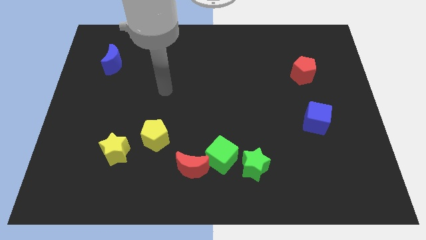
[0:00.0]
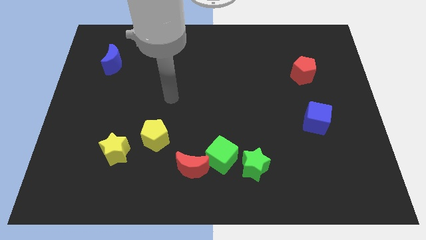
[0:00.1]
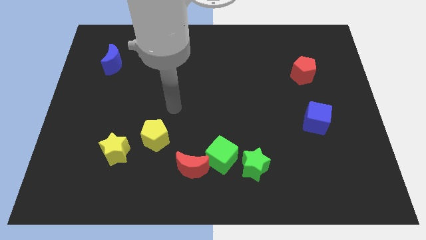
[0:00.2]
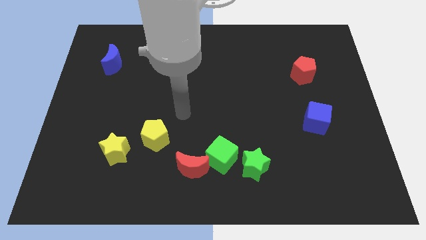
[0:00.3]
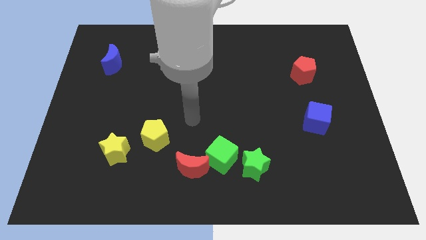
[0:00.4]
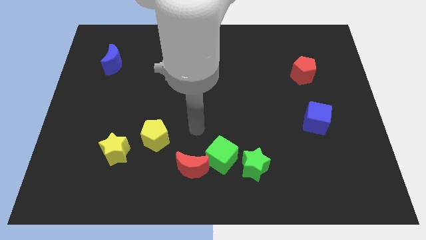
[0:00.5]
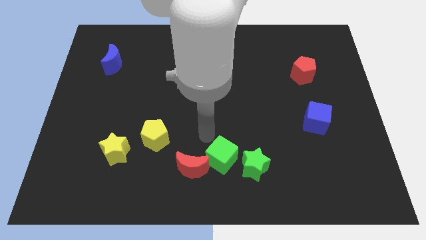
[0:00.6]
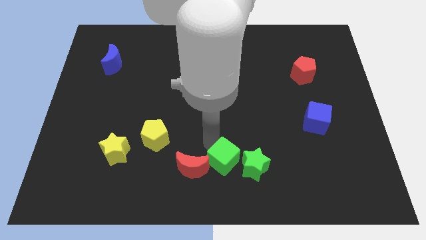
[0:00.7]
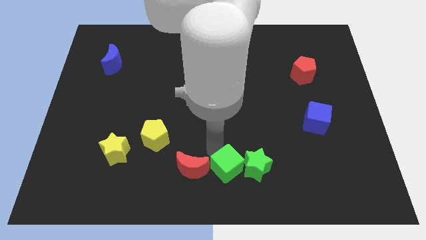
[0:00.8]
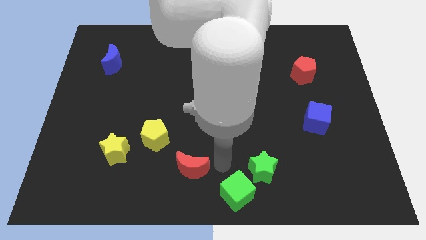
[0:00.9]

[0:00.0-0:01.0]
move the red moon away from the green cube

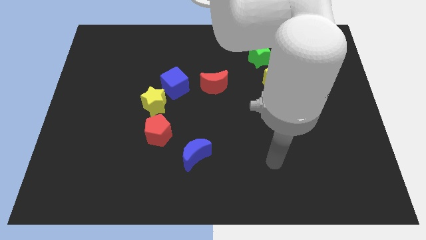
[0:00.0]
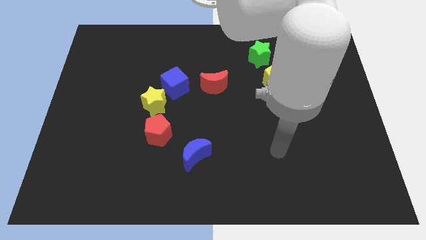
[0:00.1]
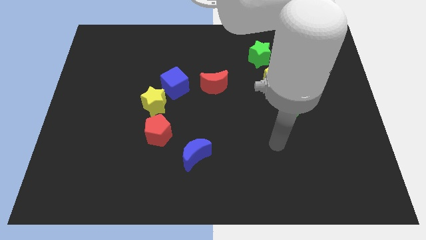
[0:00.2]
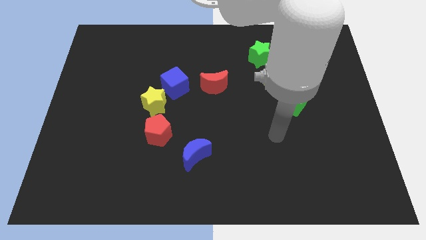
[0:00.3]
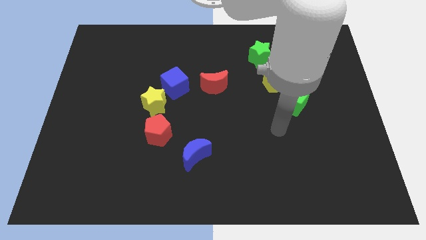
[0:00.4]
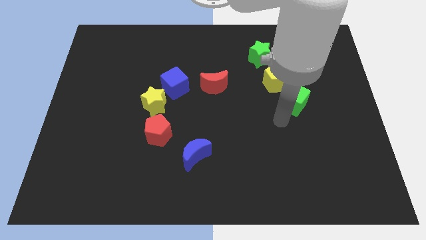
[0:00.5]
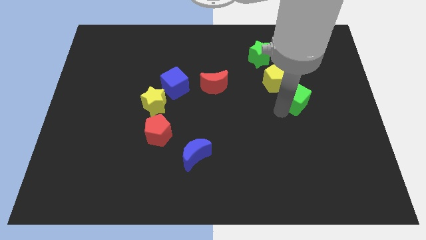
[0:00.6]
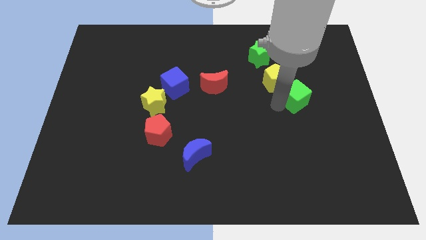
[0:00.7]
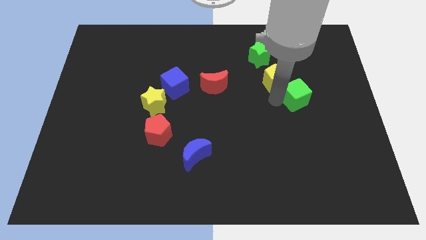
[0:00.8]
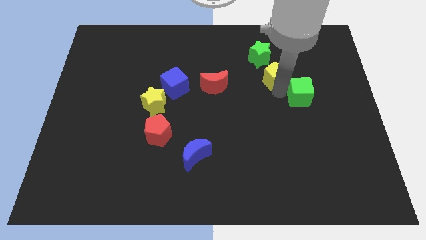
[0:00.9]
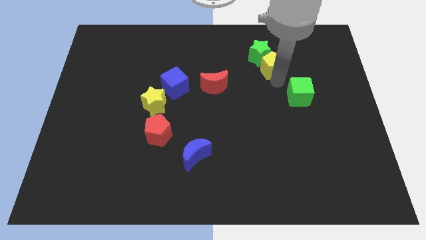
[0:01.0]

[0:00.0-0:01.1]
move the green cube away from the yellow pentagon

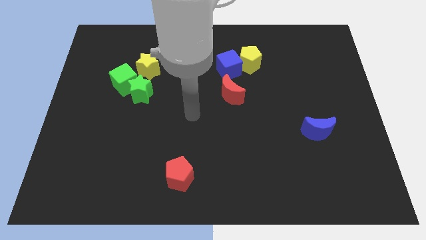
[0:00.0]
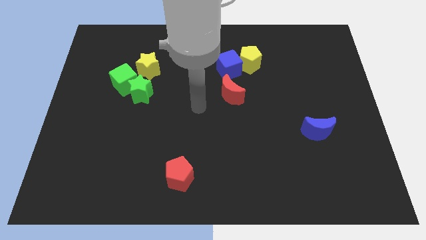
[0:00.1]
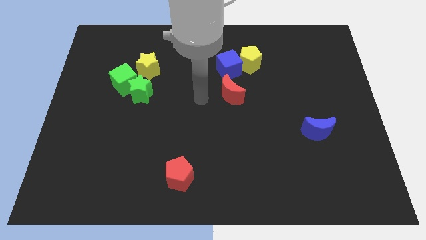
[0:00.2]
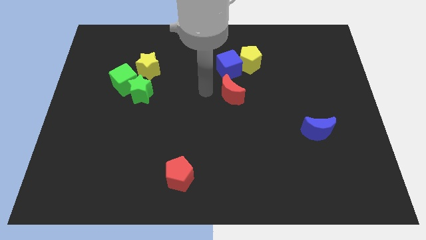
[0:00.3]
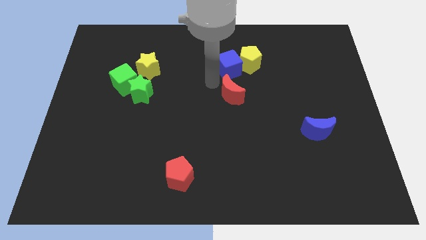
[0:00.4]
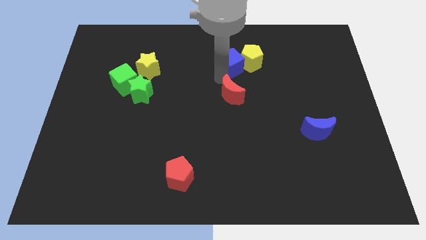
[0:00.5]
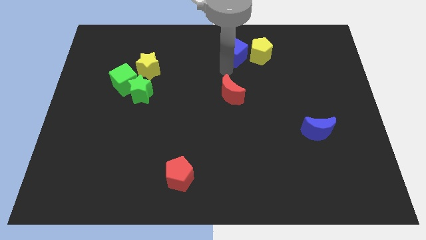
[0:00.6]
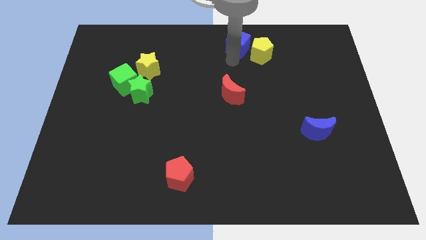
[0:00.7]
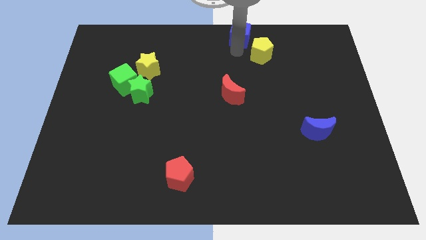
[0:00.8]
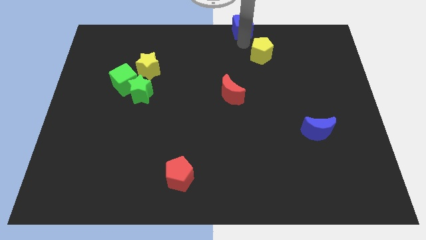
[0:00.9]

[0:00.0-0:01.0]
move the yellow pentagon away from the blue cube

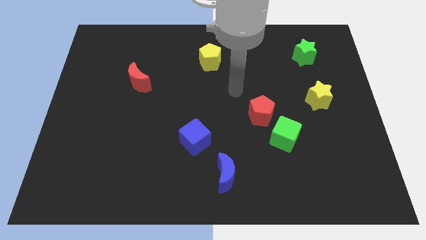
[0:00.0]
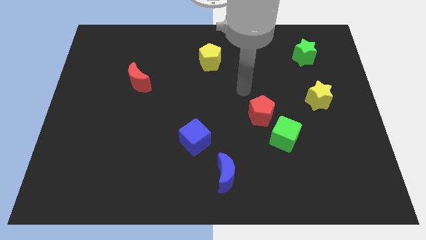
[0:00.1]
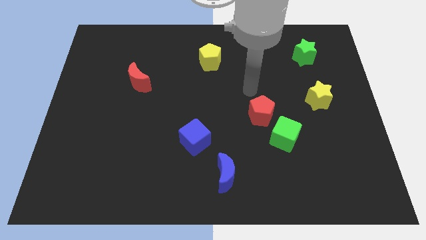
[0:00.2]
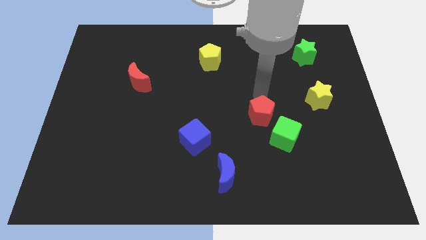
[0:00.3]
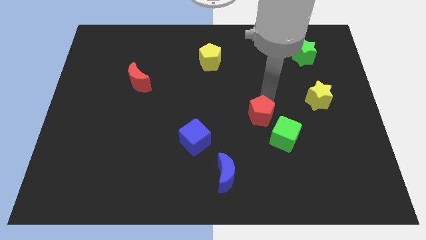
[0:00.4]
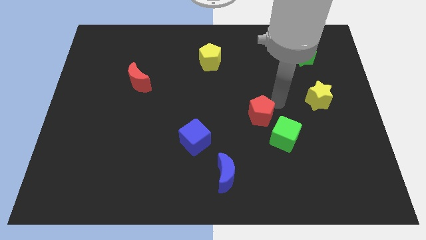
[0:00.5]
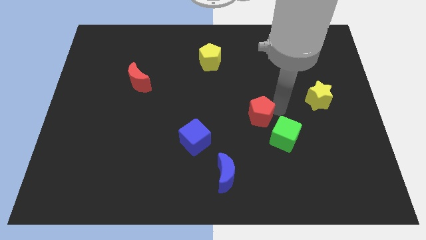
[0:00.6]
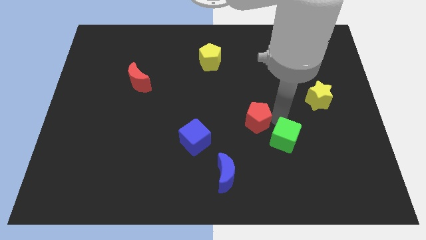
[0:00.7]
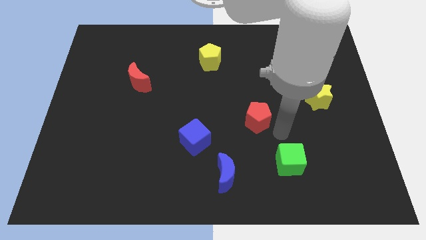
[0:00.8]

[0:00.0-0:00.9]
pull the red pentagon apart from the green cube

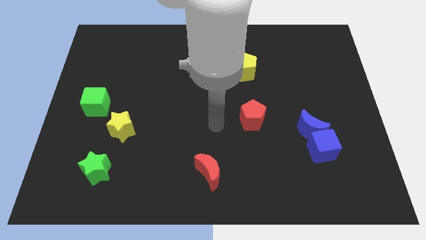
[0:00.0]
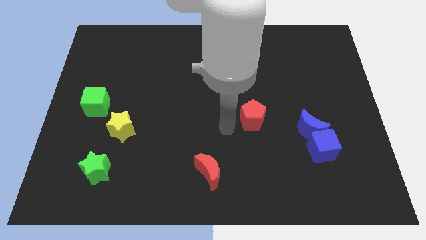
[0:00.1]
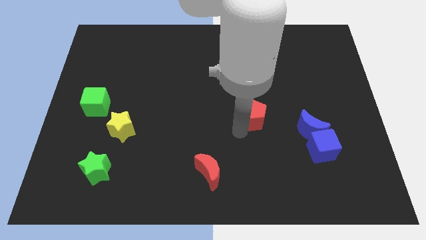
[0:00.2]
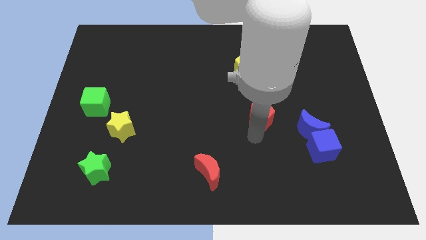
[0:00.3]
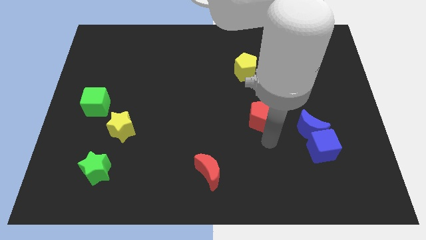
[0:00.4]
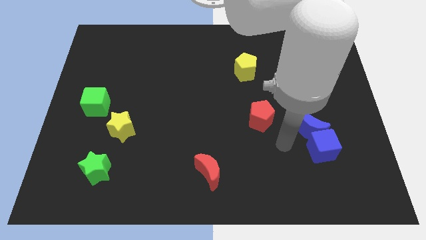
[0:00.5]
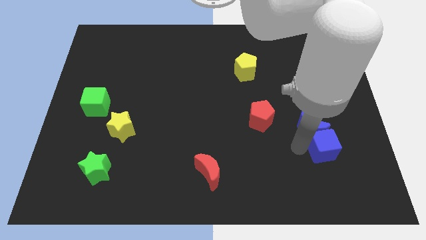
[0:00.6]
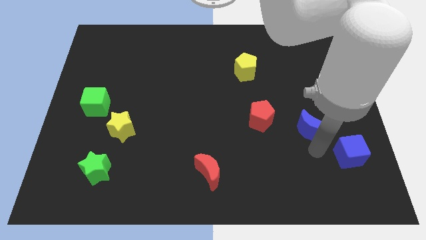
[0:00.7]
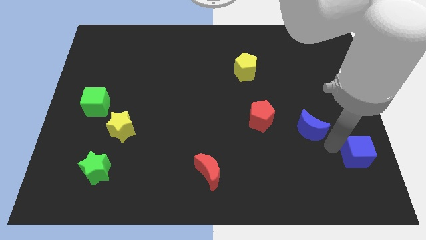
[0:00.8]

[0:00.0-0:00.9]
move the blue moon away from the blue cube

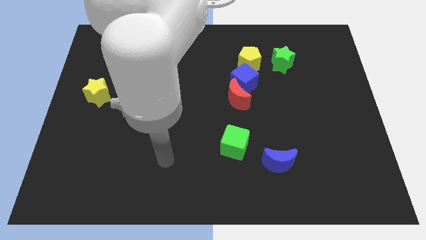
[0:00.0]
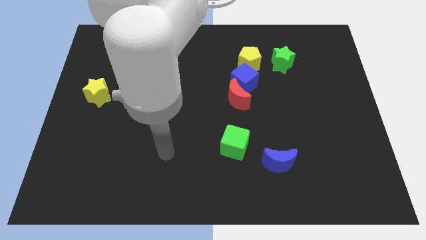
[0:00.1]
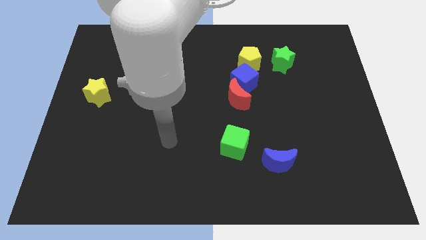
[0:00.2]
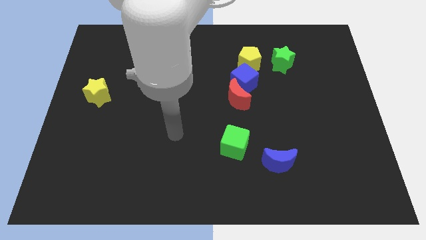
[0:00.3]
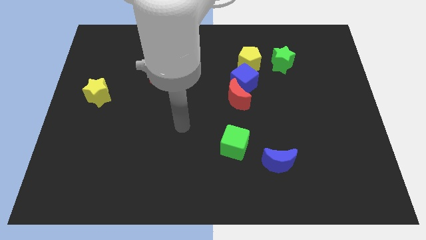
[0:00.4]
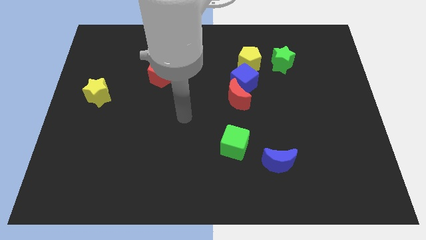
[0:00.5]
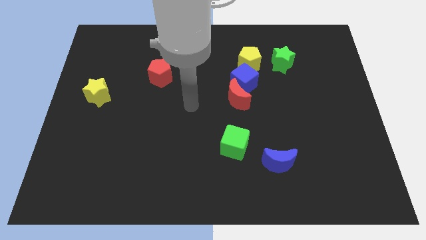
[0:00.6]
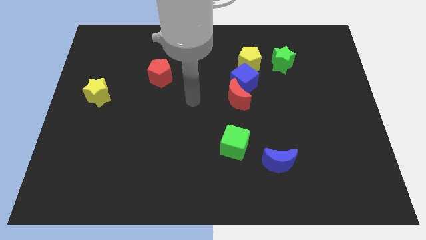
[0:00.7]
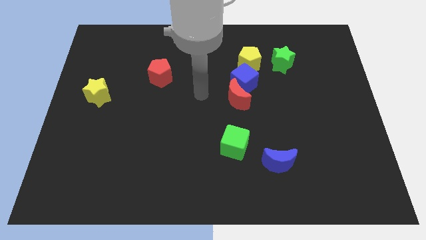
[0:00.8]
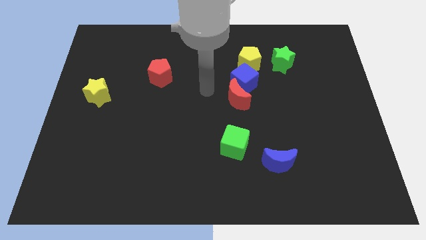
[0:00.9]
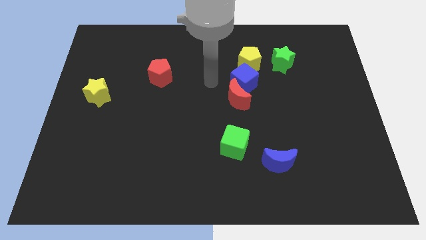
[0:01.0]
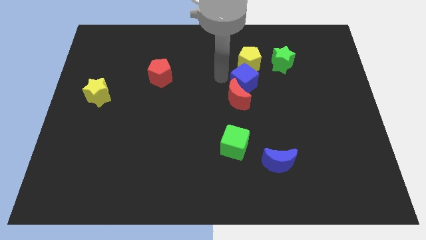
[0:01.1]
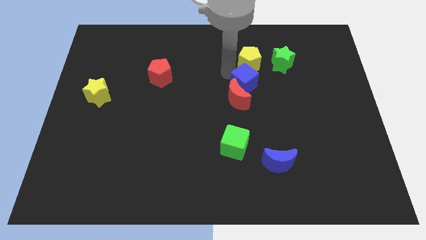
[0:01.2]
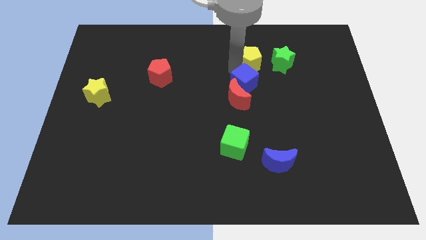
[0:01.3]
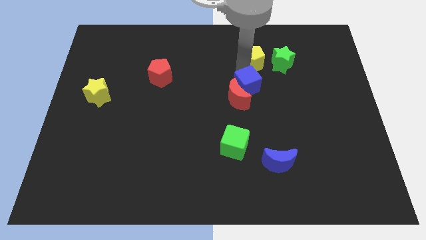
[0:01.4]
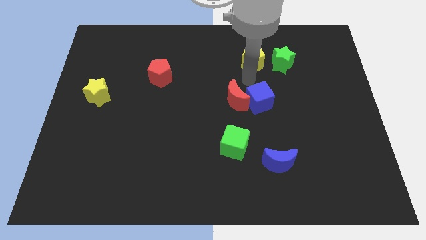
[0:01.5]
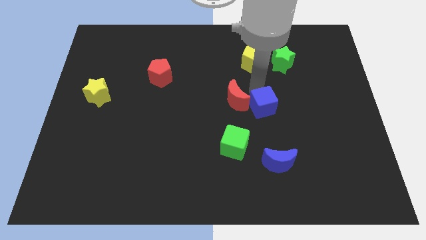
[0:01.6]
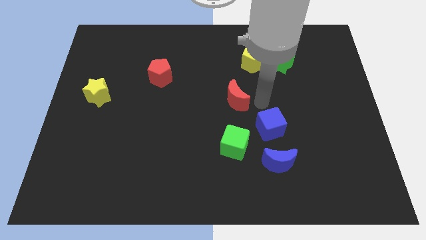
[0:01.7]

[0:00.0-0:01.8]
separate the red moon from the blue cube

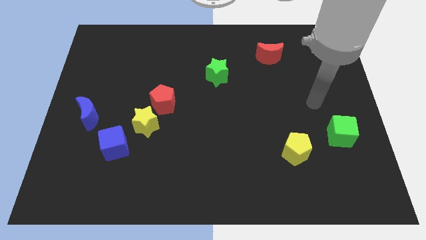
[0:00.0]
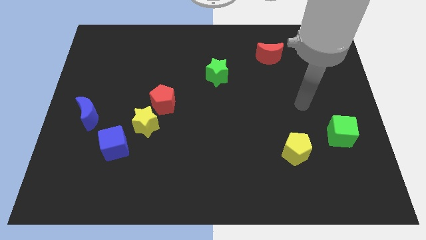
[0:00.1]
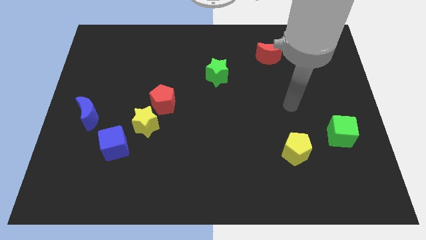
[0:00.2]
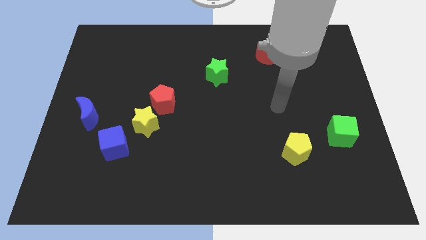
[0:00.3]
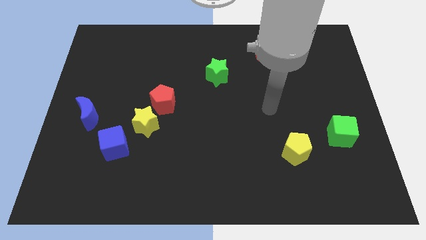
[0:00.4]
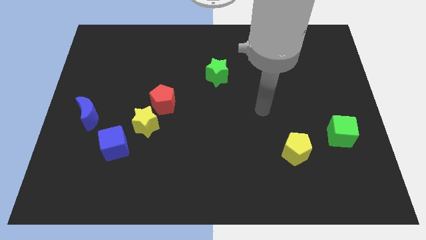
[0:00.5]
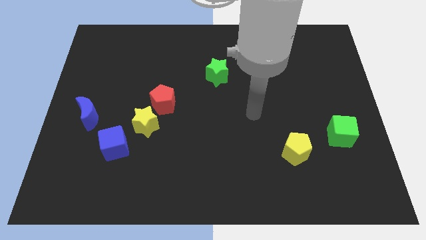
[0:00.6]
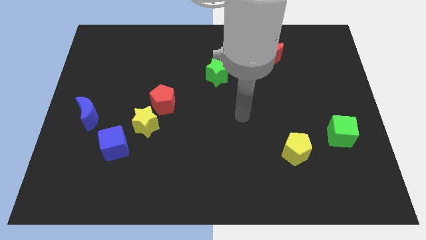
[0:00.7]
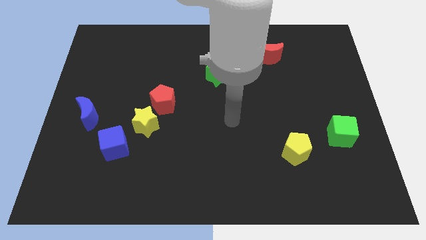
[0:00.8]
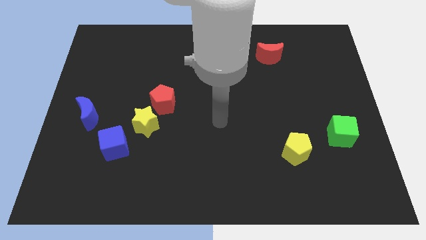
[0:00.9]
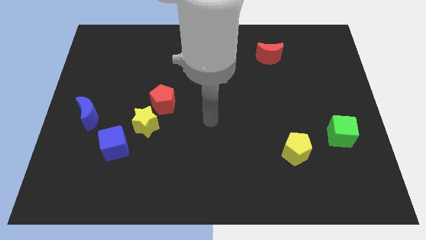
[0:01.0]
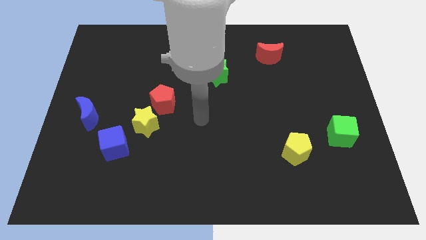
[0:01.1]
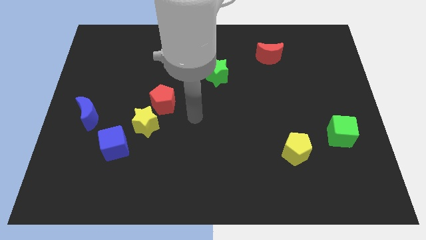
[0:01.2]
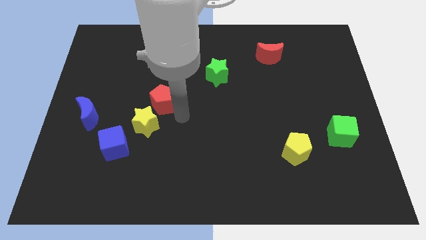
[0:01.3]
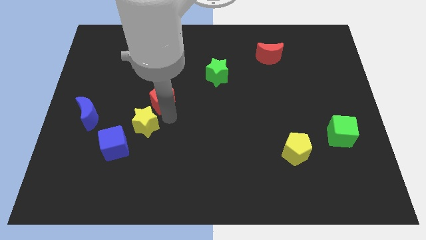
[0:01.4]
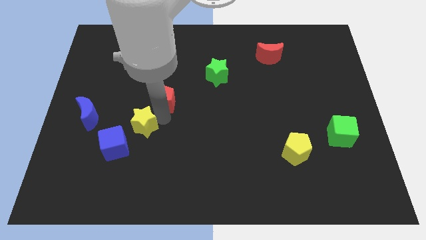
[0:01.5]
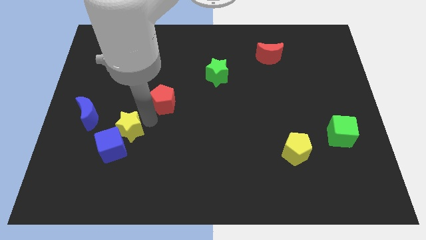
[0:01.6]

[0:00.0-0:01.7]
move the red pentagon away from the yellow star

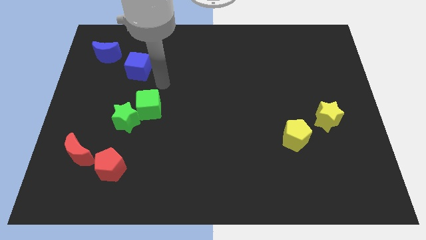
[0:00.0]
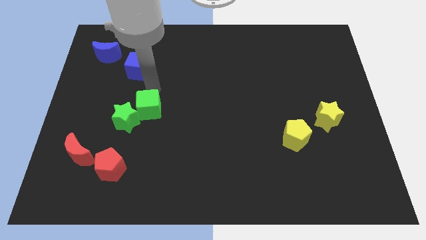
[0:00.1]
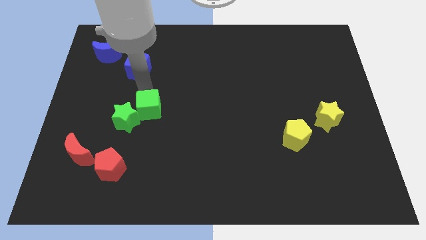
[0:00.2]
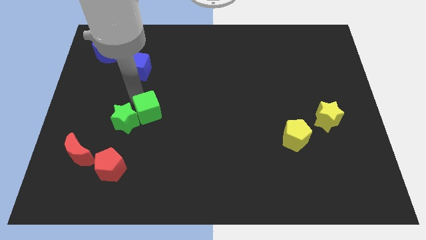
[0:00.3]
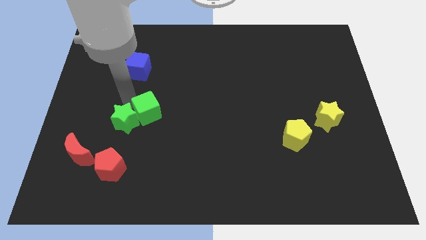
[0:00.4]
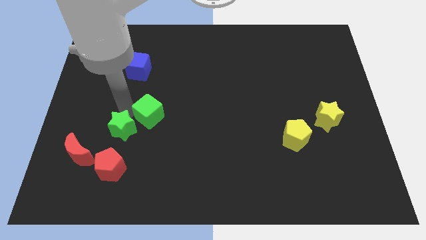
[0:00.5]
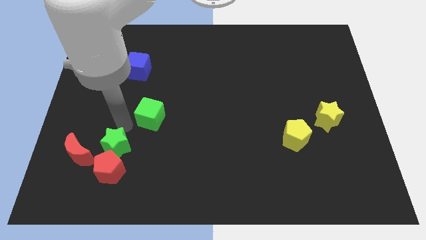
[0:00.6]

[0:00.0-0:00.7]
separate the green cube from the green star
